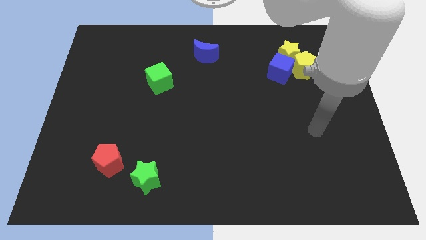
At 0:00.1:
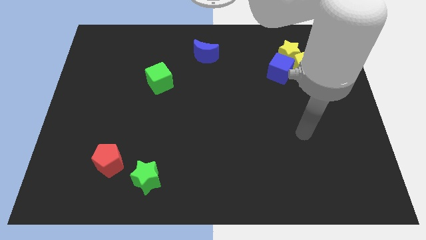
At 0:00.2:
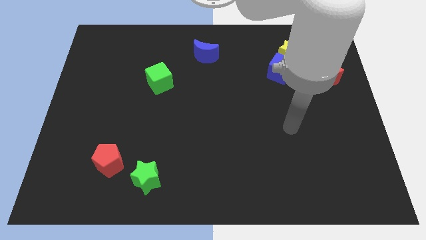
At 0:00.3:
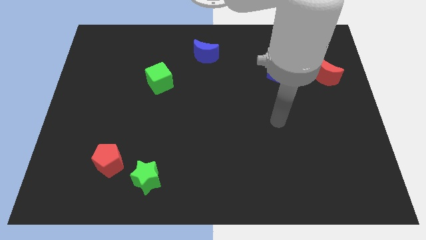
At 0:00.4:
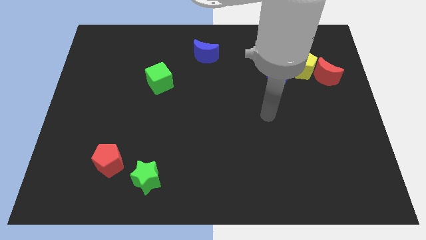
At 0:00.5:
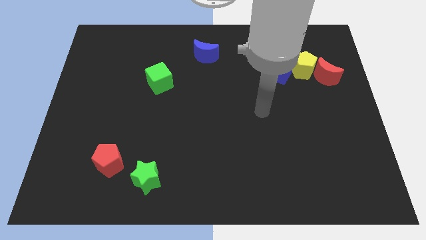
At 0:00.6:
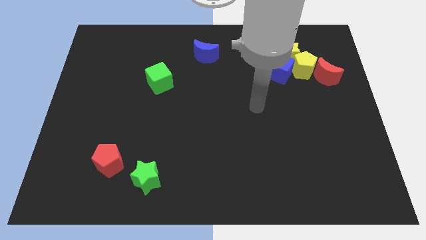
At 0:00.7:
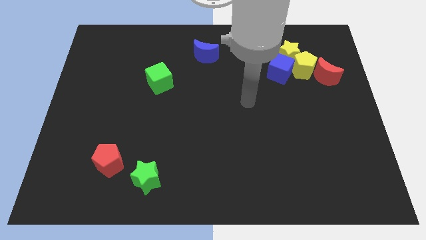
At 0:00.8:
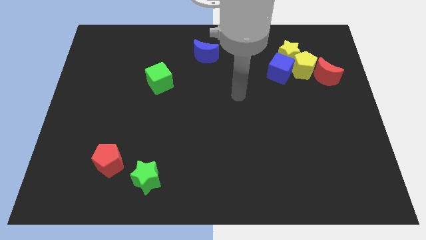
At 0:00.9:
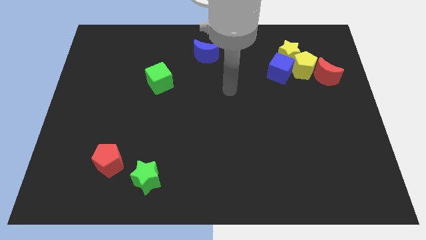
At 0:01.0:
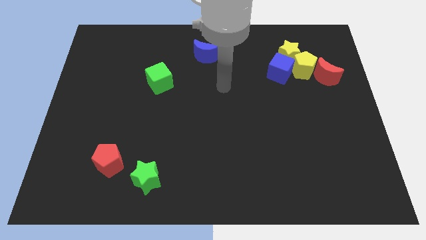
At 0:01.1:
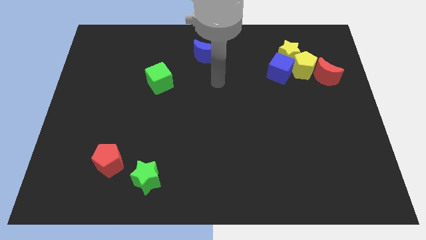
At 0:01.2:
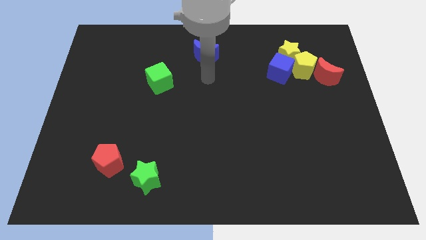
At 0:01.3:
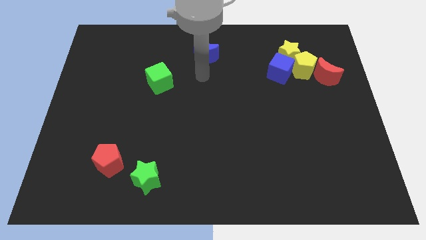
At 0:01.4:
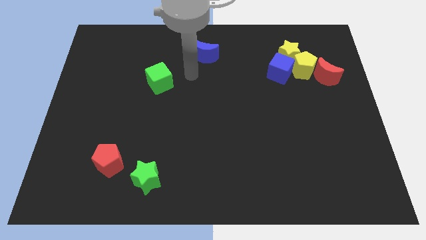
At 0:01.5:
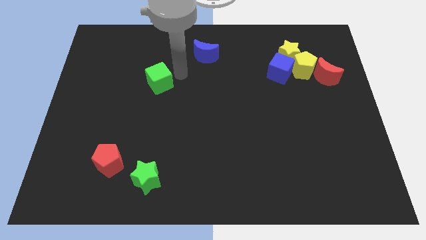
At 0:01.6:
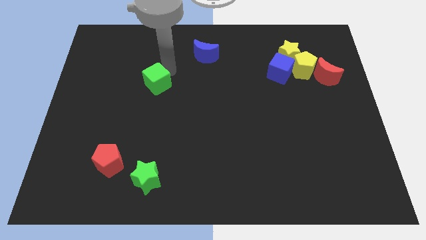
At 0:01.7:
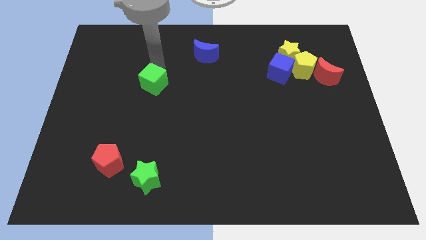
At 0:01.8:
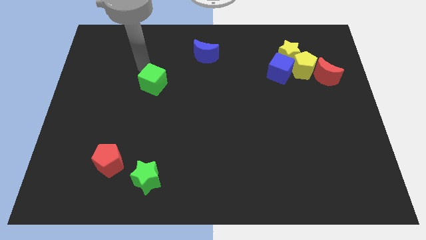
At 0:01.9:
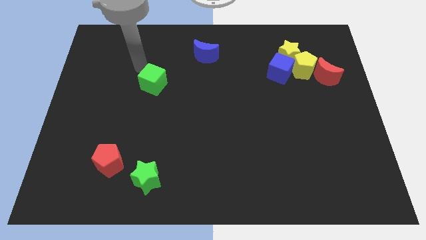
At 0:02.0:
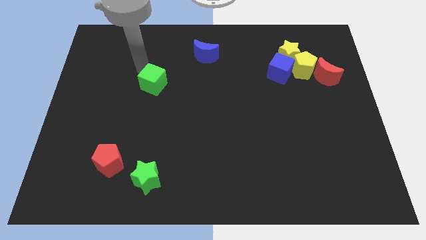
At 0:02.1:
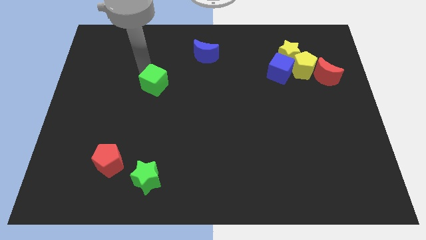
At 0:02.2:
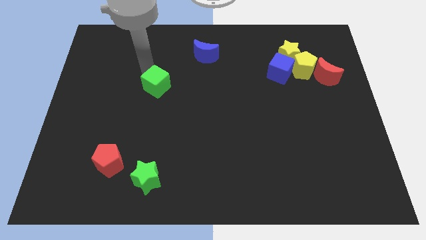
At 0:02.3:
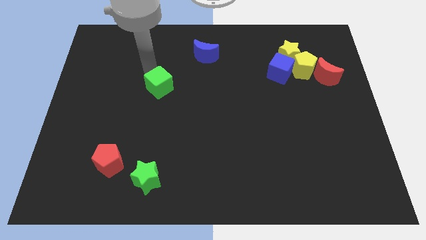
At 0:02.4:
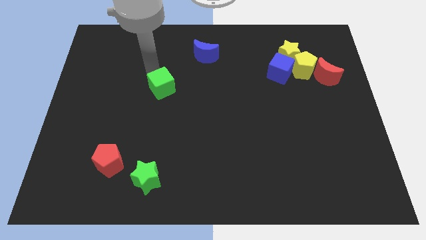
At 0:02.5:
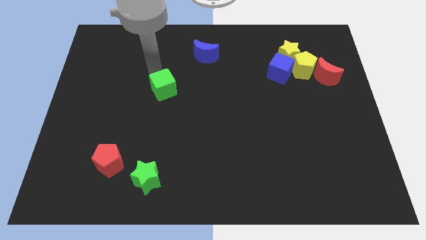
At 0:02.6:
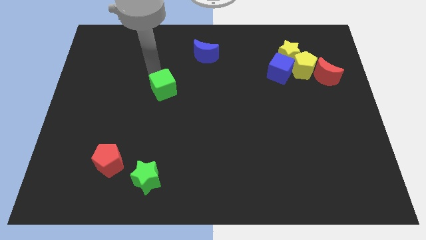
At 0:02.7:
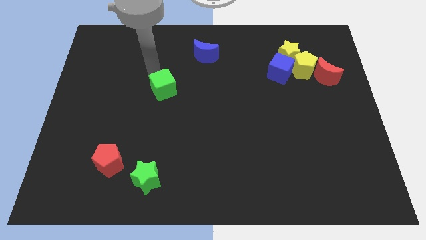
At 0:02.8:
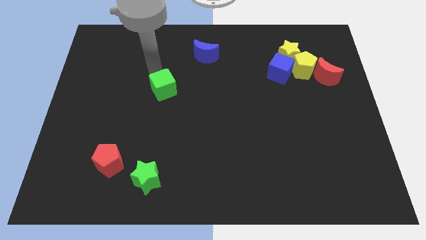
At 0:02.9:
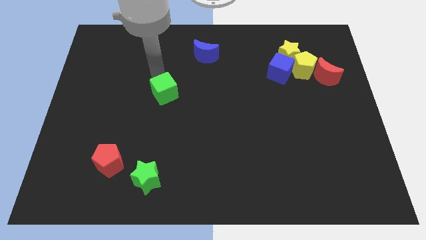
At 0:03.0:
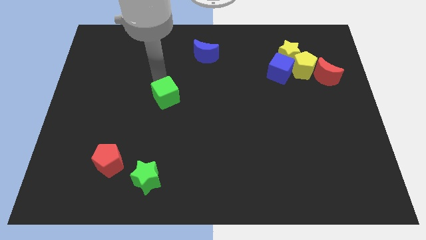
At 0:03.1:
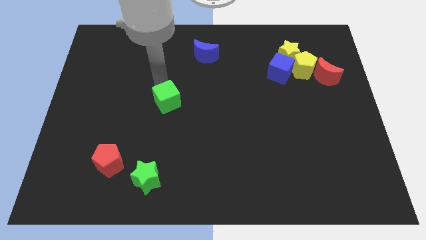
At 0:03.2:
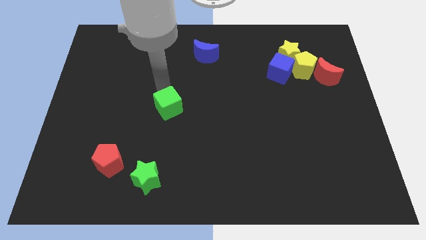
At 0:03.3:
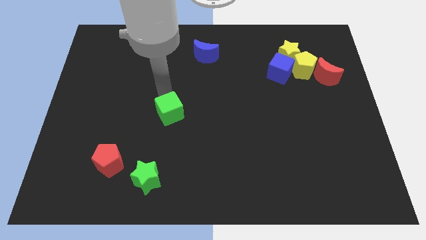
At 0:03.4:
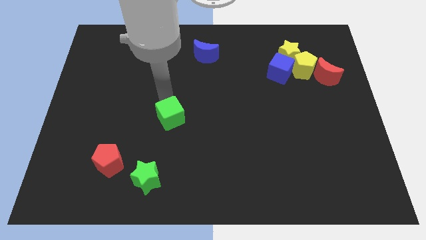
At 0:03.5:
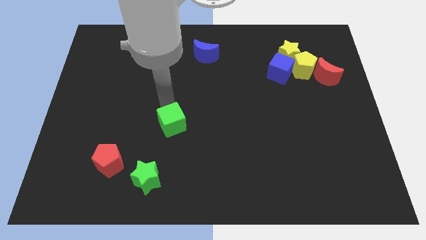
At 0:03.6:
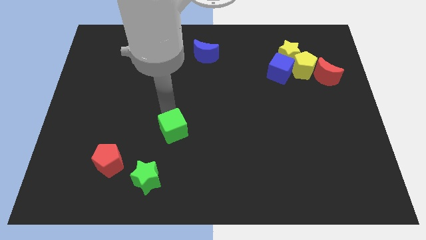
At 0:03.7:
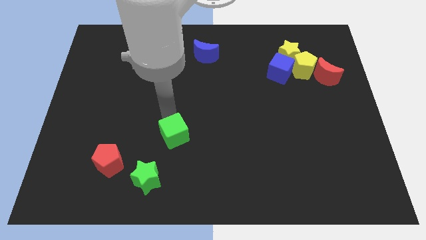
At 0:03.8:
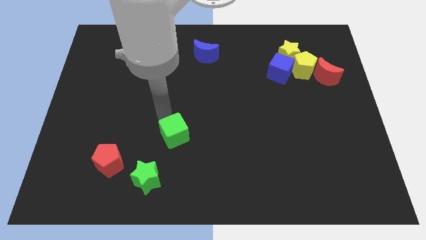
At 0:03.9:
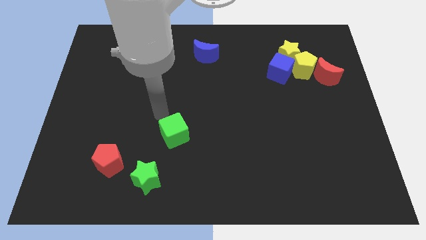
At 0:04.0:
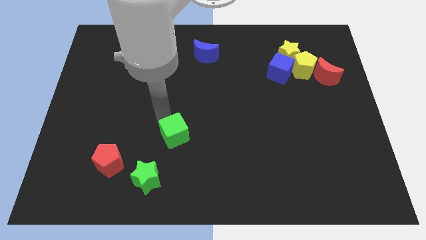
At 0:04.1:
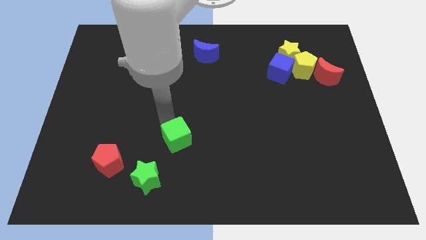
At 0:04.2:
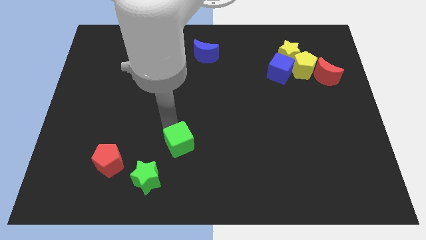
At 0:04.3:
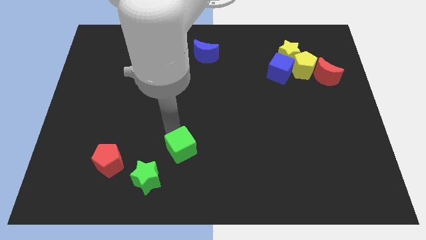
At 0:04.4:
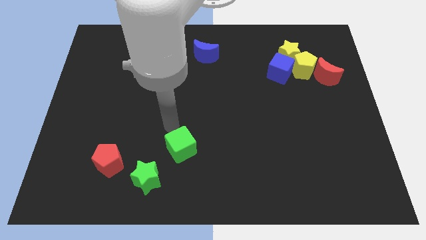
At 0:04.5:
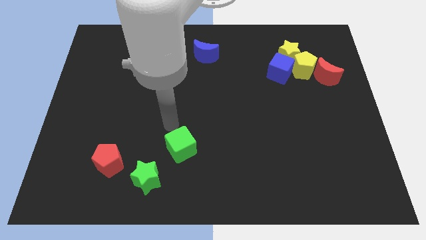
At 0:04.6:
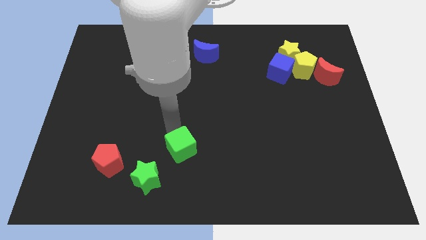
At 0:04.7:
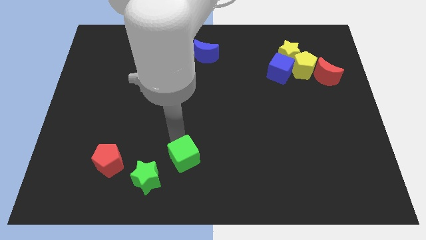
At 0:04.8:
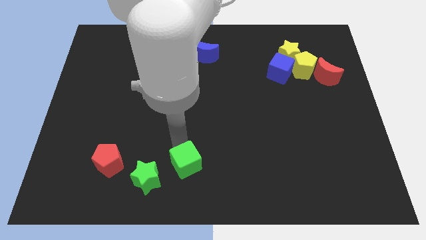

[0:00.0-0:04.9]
push the green cube just right of the green star

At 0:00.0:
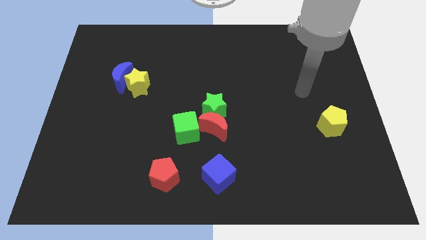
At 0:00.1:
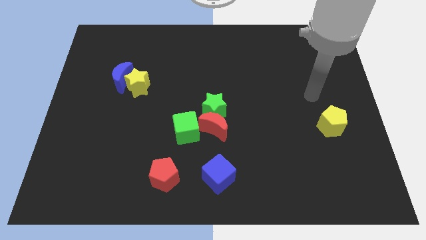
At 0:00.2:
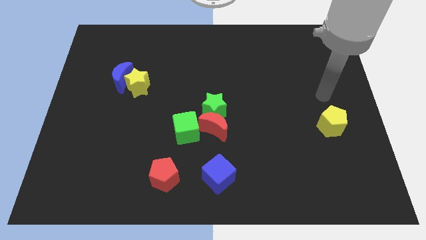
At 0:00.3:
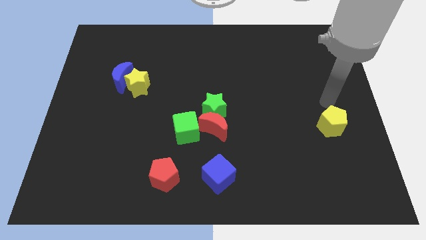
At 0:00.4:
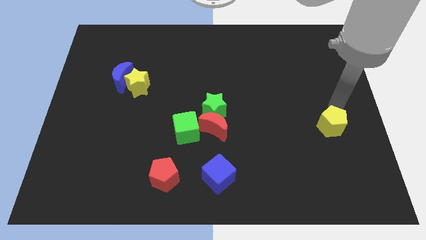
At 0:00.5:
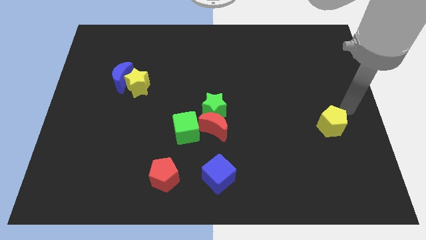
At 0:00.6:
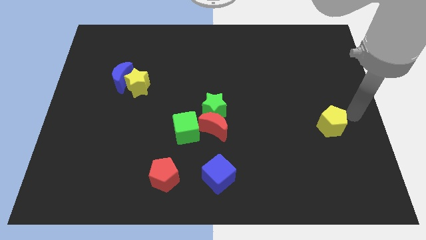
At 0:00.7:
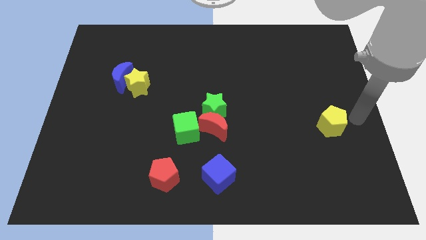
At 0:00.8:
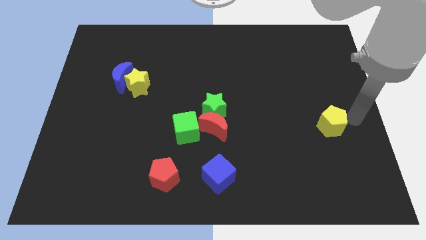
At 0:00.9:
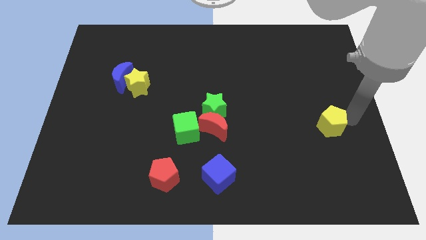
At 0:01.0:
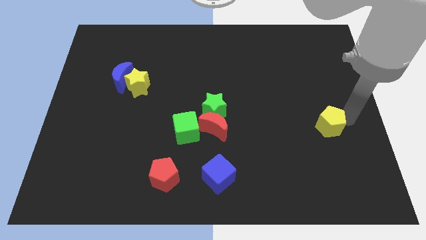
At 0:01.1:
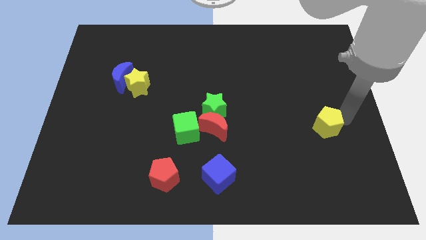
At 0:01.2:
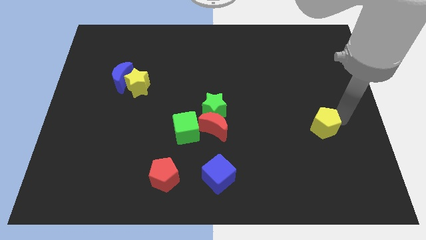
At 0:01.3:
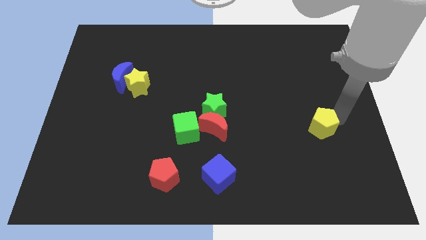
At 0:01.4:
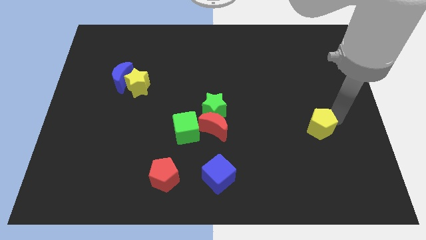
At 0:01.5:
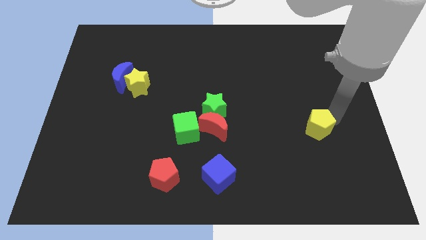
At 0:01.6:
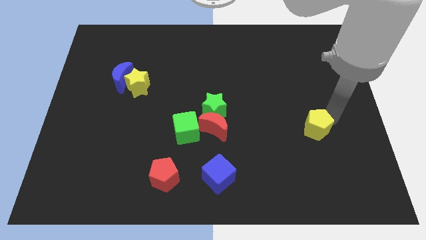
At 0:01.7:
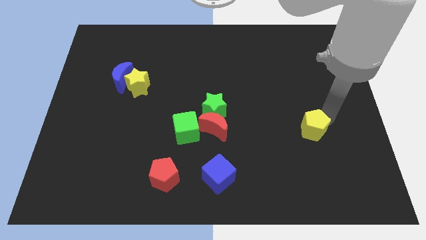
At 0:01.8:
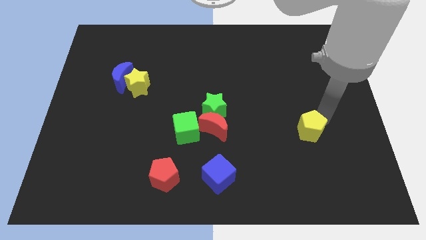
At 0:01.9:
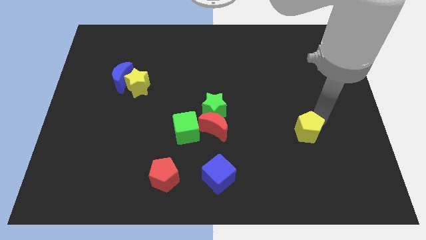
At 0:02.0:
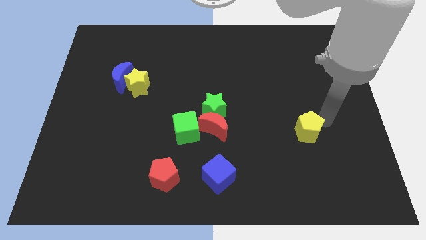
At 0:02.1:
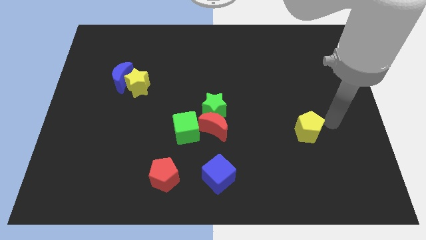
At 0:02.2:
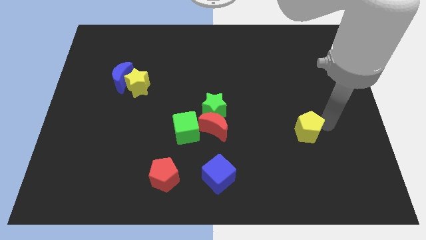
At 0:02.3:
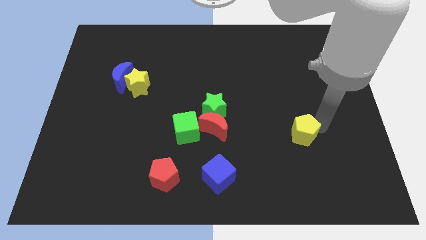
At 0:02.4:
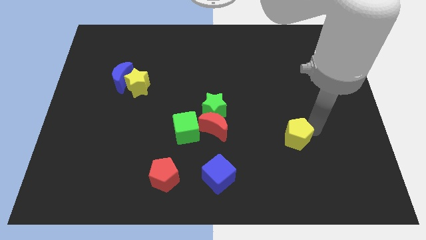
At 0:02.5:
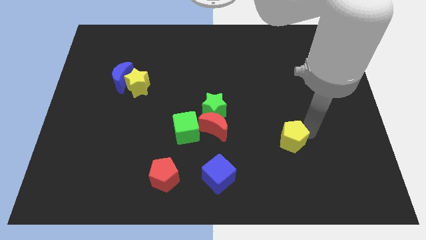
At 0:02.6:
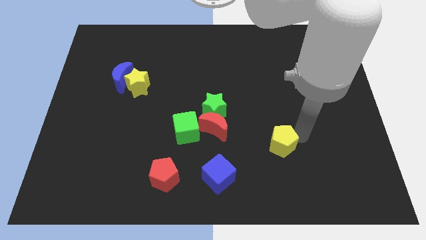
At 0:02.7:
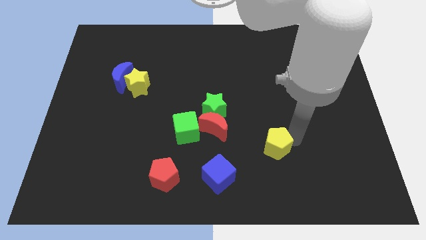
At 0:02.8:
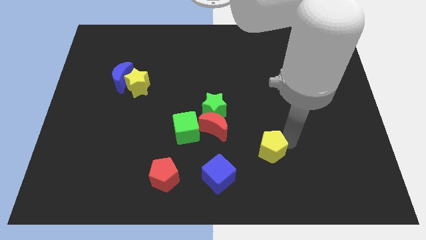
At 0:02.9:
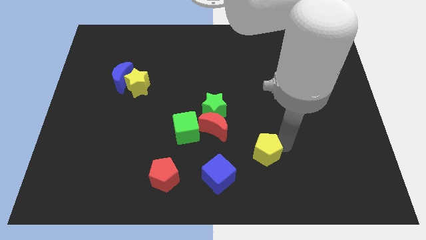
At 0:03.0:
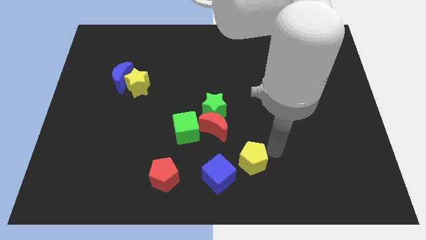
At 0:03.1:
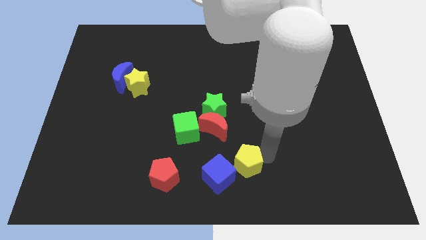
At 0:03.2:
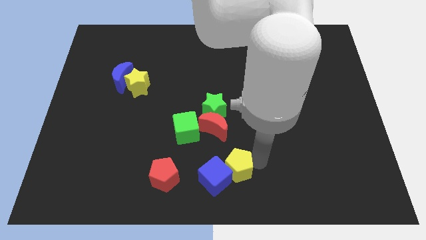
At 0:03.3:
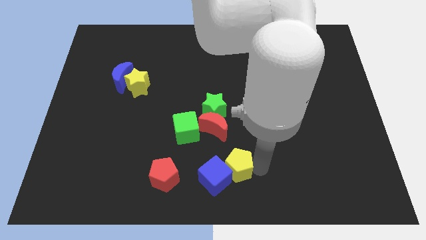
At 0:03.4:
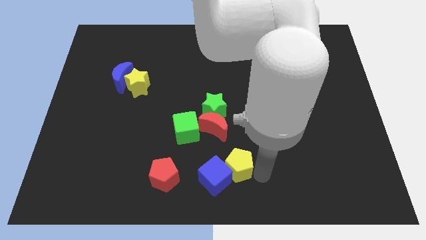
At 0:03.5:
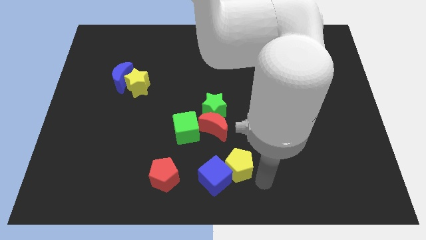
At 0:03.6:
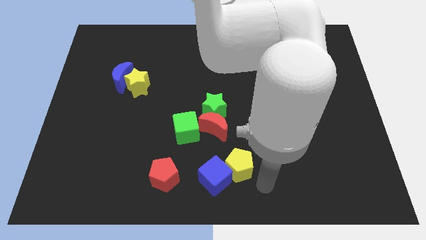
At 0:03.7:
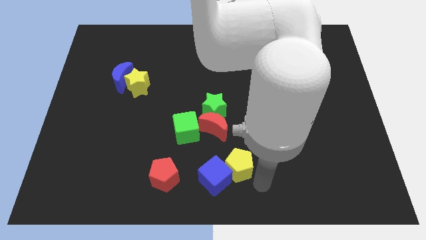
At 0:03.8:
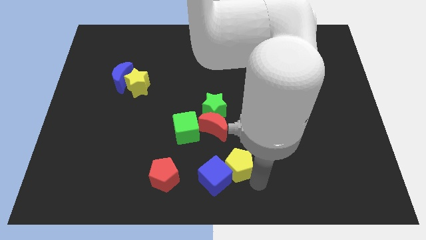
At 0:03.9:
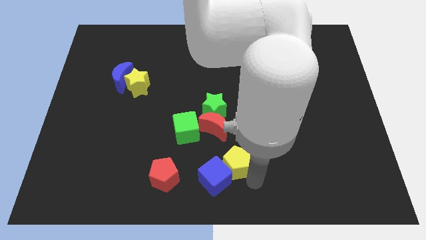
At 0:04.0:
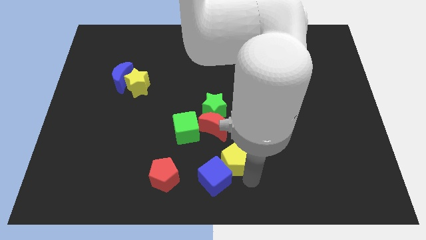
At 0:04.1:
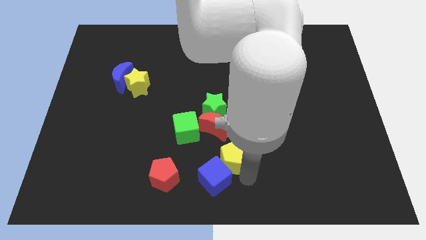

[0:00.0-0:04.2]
slide the yellow pentagon below the green star
